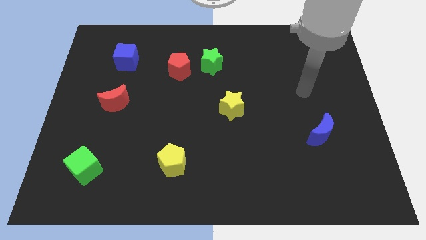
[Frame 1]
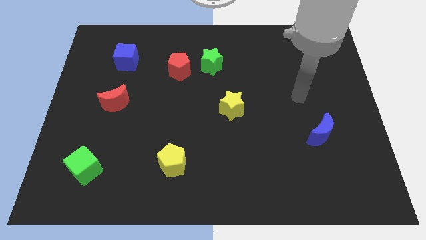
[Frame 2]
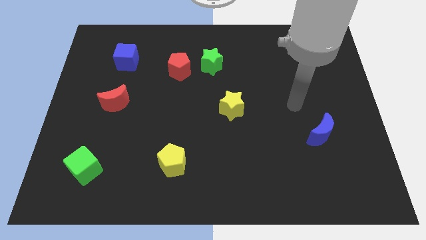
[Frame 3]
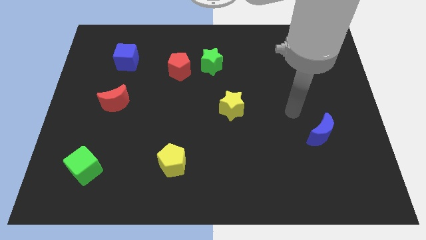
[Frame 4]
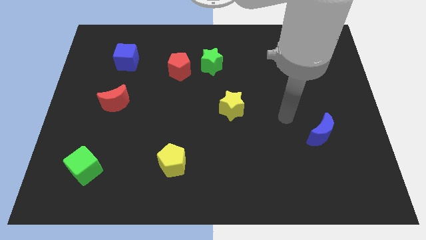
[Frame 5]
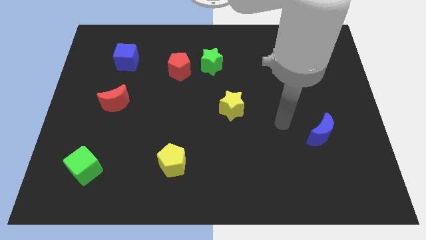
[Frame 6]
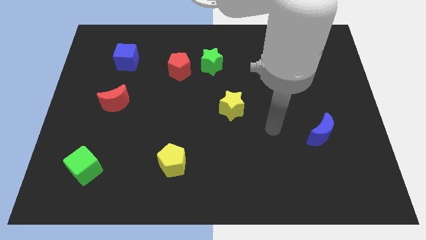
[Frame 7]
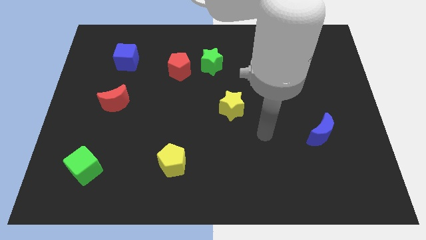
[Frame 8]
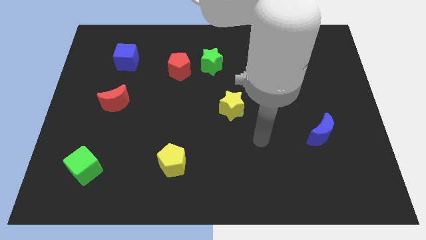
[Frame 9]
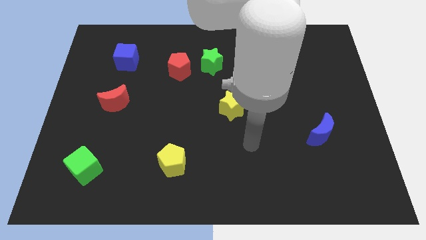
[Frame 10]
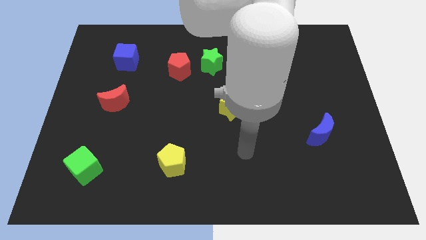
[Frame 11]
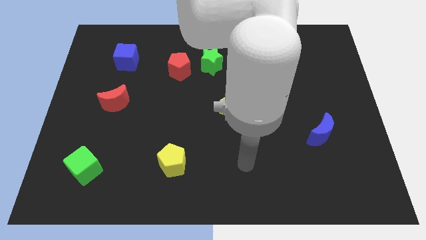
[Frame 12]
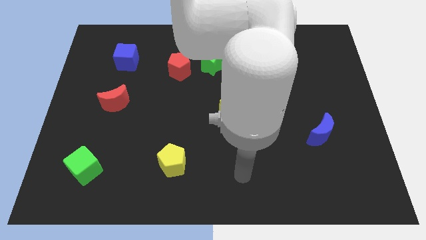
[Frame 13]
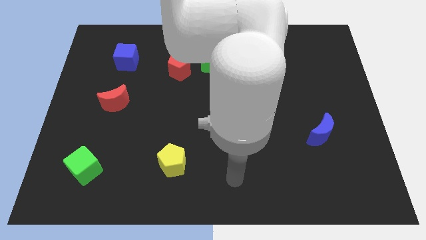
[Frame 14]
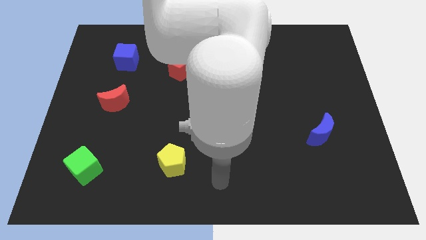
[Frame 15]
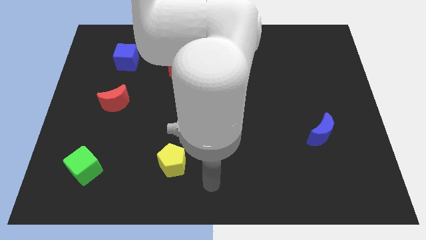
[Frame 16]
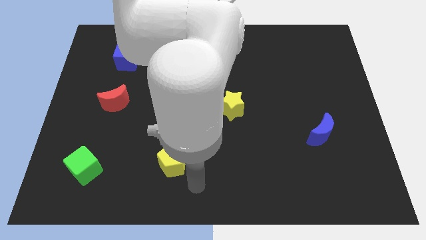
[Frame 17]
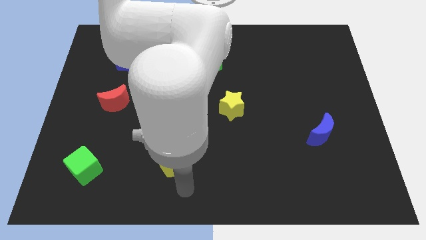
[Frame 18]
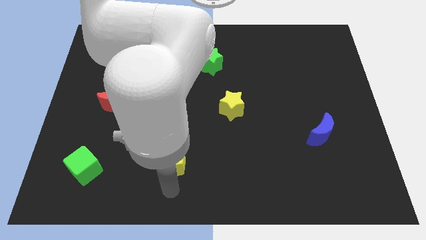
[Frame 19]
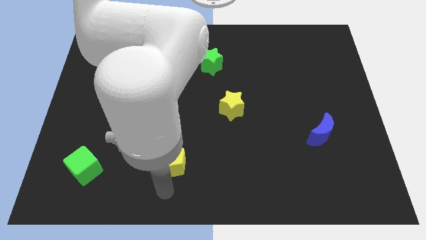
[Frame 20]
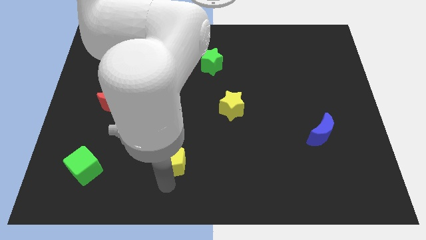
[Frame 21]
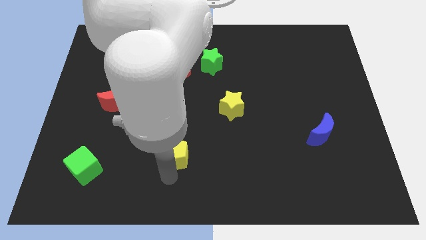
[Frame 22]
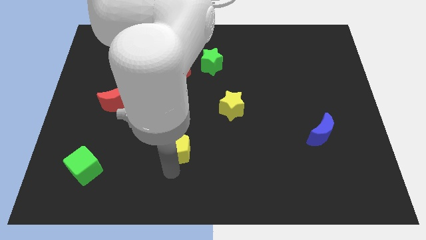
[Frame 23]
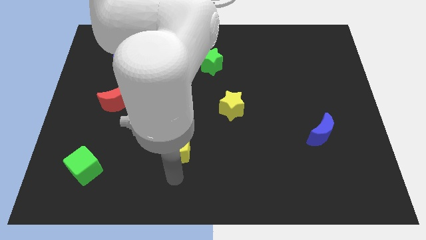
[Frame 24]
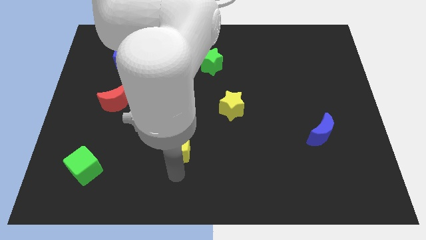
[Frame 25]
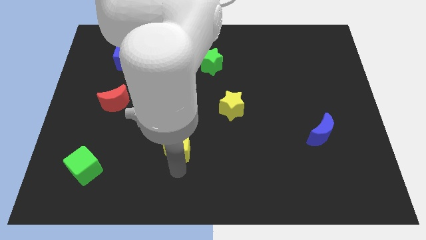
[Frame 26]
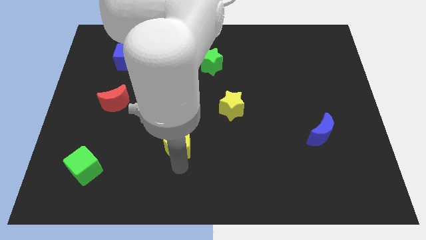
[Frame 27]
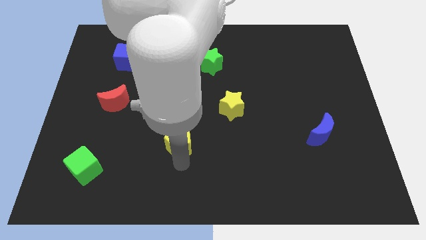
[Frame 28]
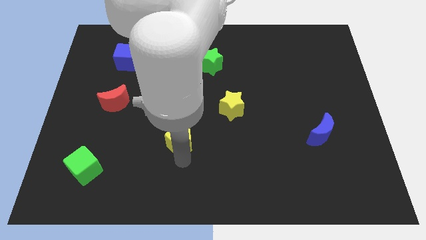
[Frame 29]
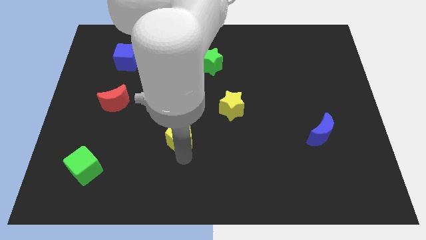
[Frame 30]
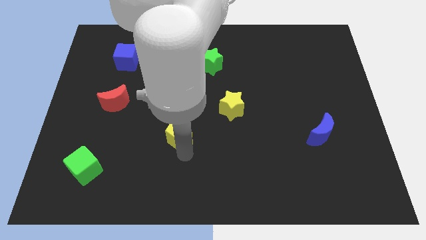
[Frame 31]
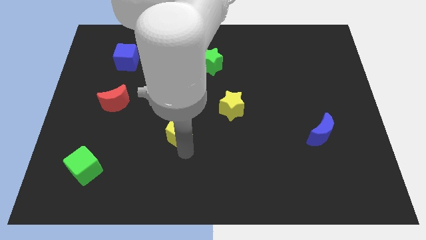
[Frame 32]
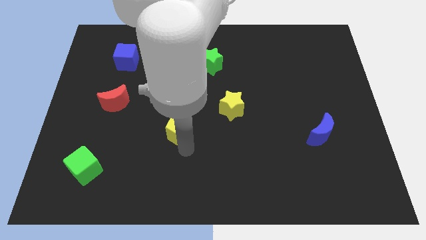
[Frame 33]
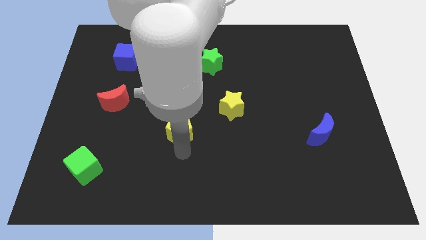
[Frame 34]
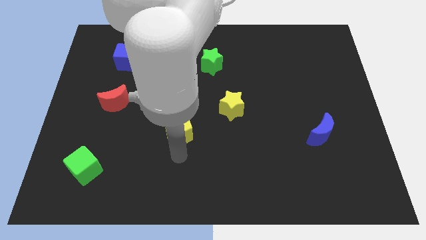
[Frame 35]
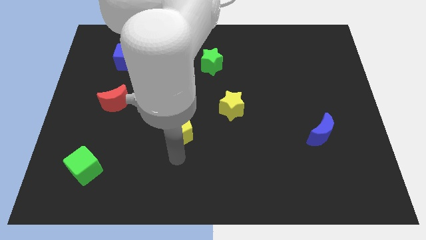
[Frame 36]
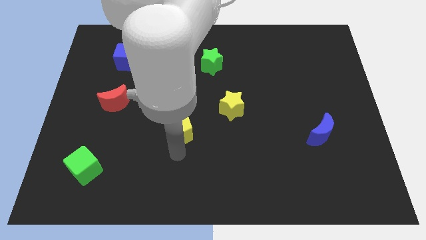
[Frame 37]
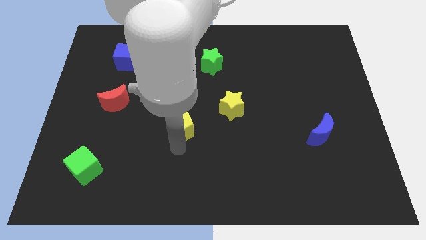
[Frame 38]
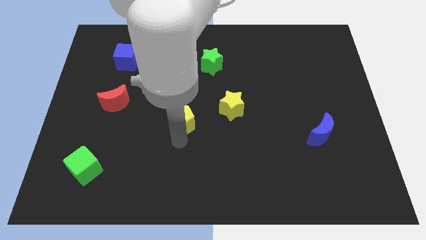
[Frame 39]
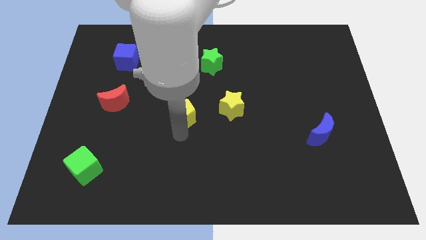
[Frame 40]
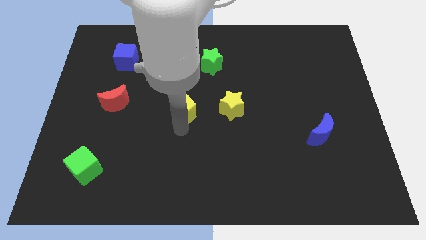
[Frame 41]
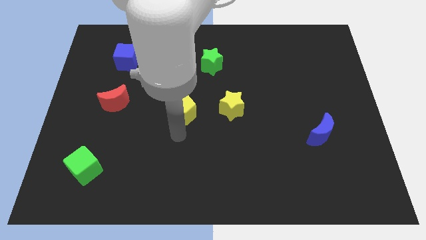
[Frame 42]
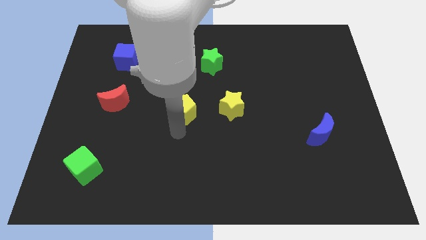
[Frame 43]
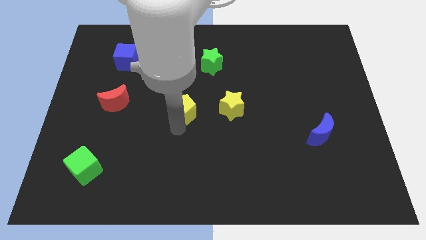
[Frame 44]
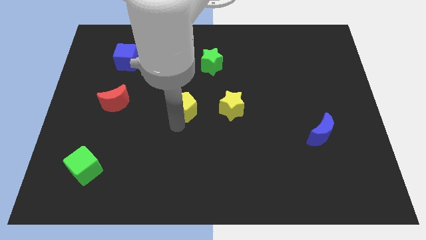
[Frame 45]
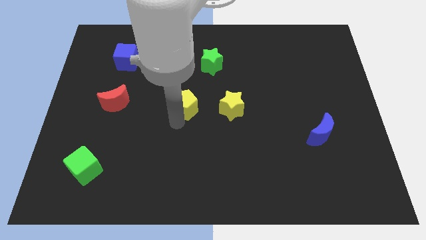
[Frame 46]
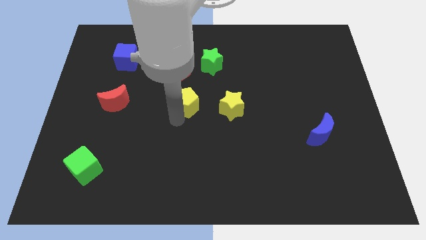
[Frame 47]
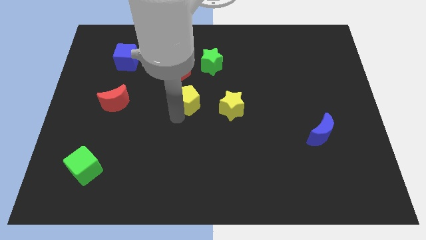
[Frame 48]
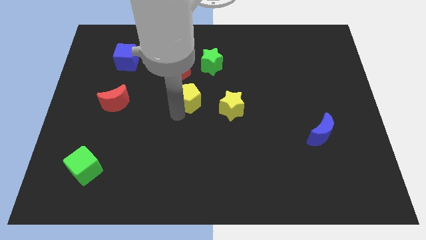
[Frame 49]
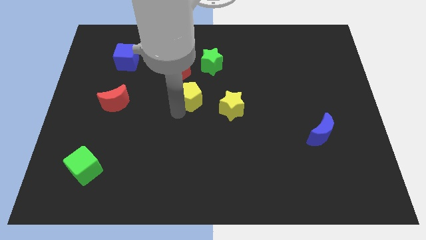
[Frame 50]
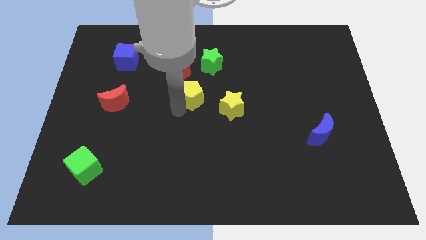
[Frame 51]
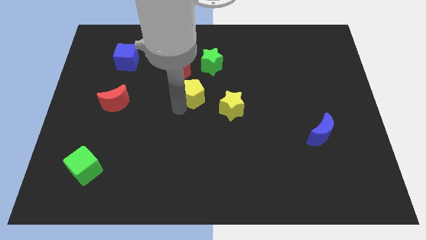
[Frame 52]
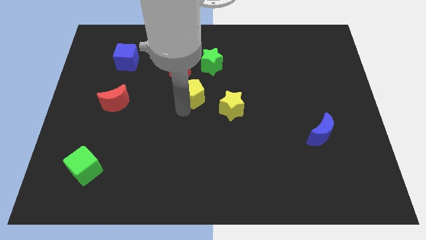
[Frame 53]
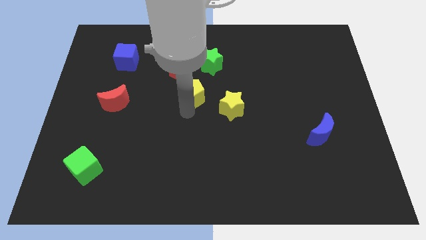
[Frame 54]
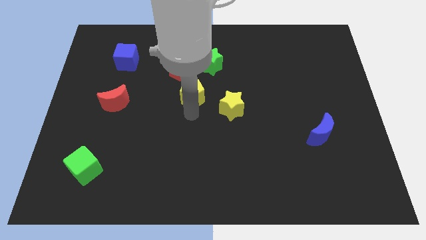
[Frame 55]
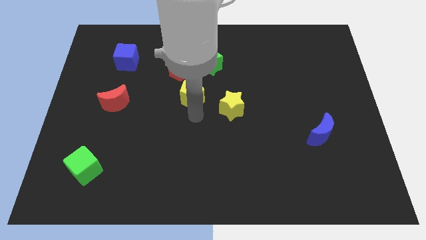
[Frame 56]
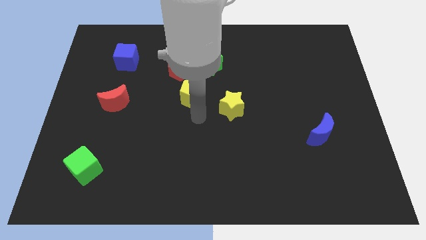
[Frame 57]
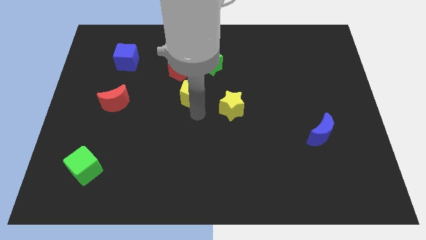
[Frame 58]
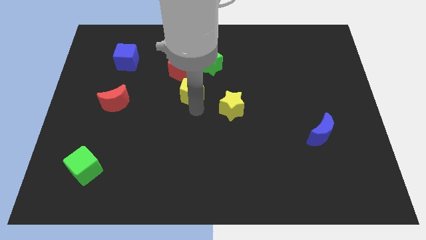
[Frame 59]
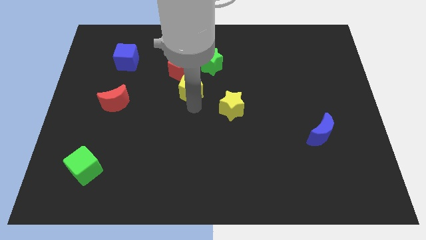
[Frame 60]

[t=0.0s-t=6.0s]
slide the yellow pentagon upwards

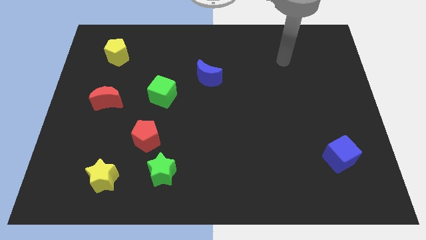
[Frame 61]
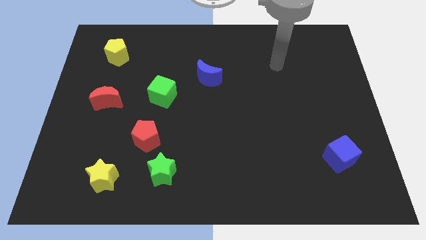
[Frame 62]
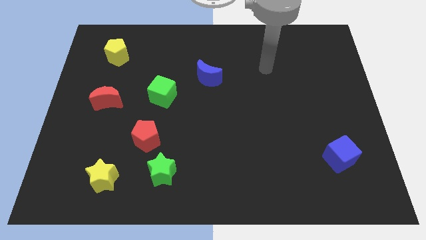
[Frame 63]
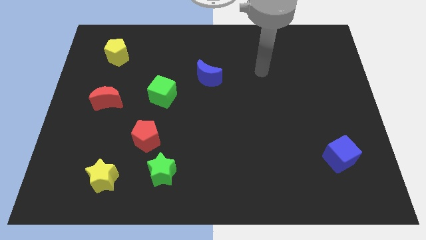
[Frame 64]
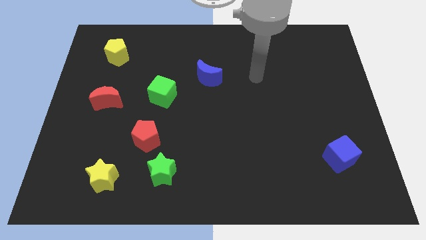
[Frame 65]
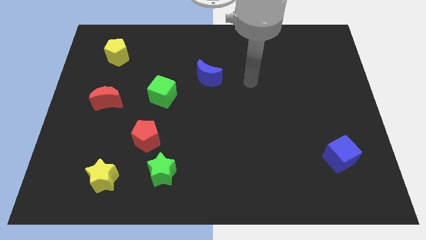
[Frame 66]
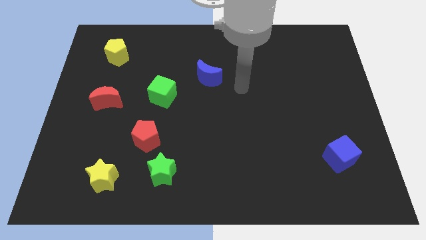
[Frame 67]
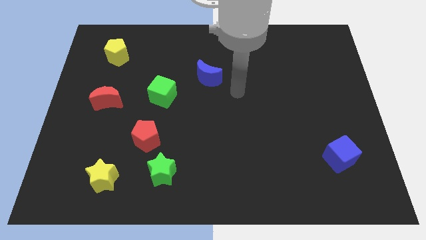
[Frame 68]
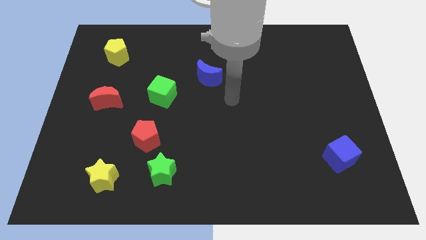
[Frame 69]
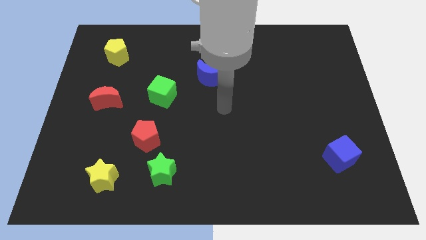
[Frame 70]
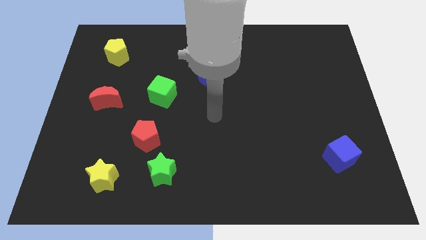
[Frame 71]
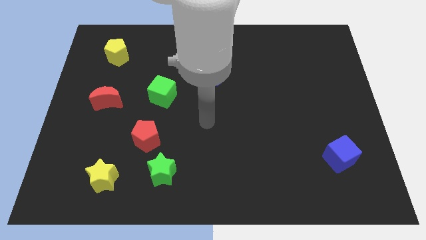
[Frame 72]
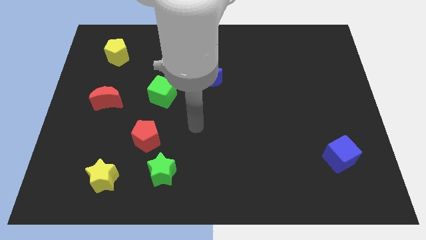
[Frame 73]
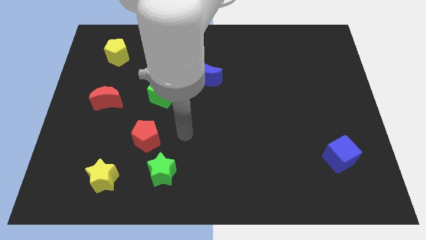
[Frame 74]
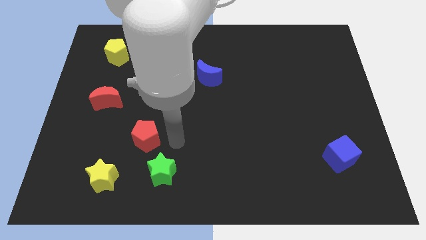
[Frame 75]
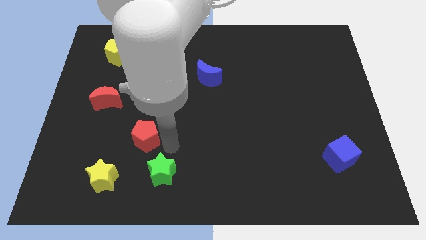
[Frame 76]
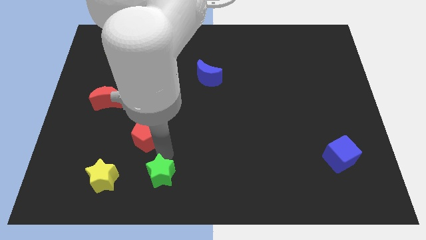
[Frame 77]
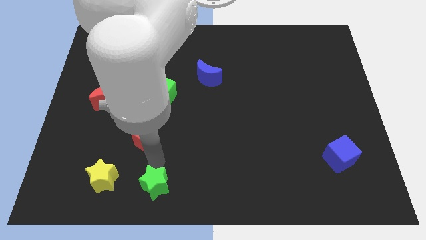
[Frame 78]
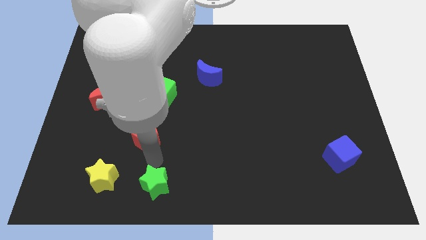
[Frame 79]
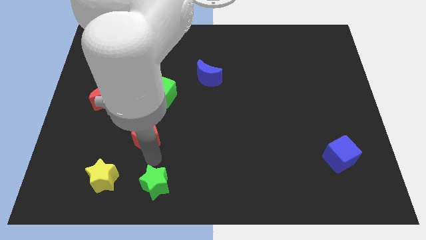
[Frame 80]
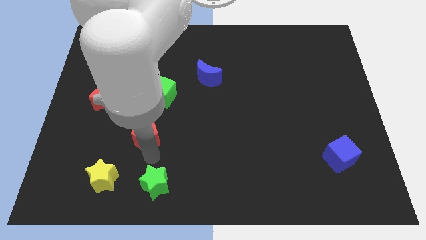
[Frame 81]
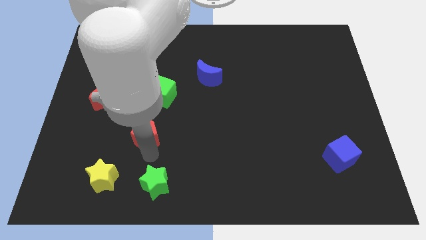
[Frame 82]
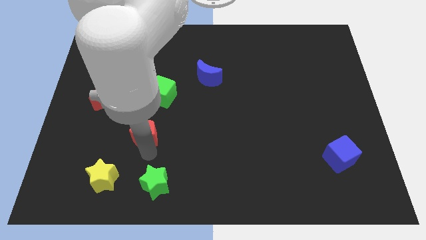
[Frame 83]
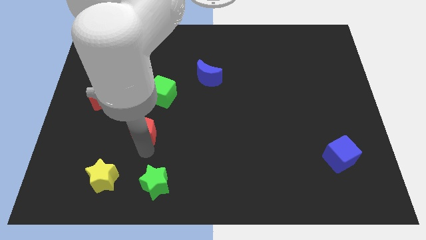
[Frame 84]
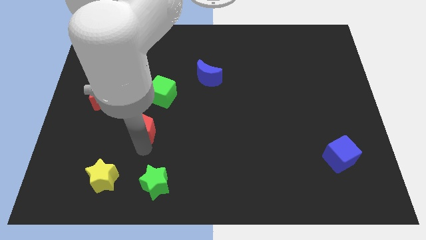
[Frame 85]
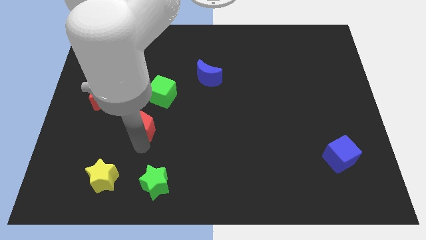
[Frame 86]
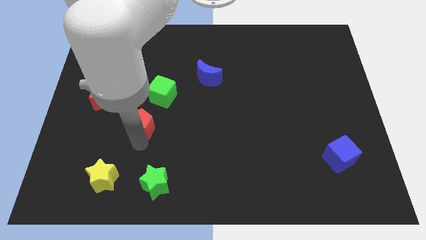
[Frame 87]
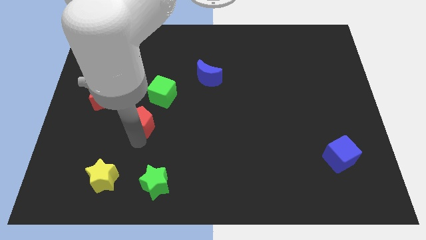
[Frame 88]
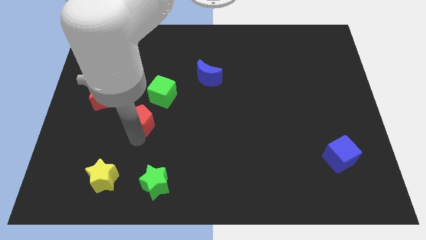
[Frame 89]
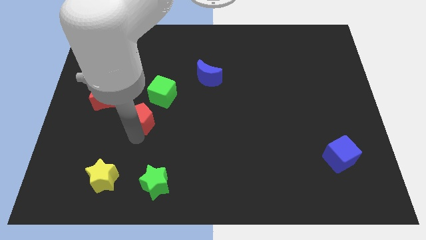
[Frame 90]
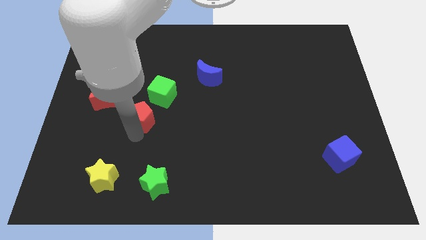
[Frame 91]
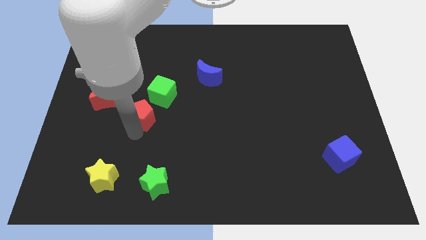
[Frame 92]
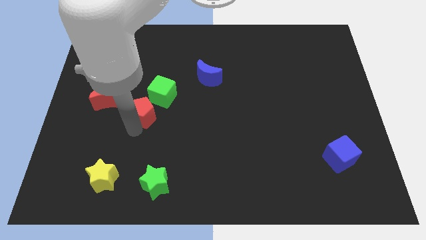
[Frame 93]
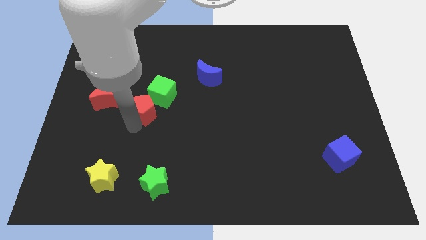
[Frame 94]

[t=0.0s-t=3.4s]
move the red pentagon a little upwards
